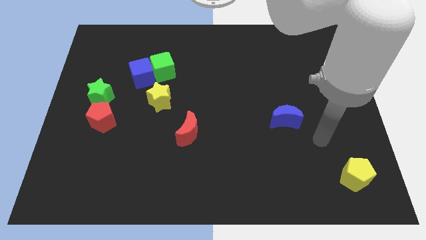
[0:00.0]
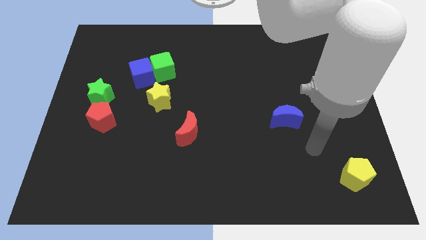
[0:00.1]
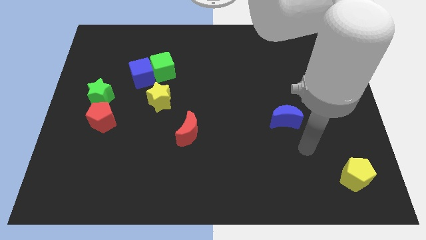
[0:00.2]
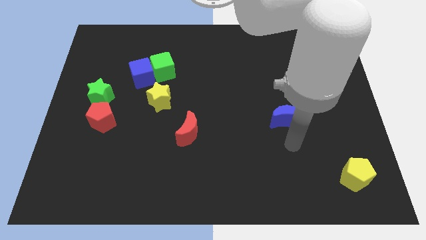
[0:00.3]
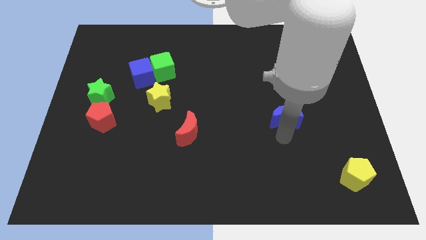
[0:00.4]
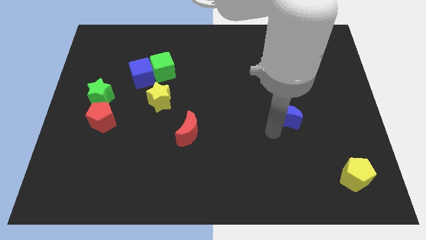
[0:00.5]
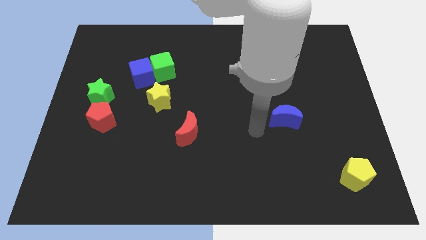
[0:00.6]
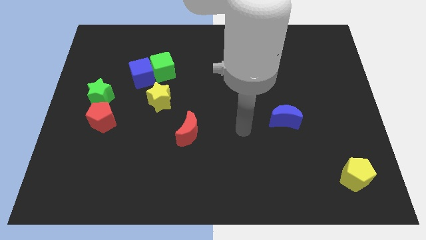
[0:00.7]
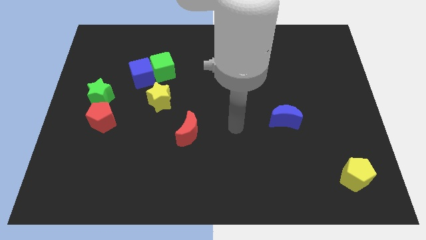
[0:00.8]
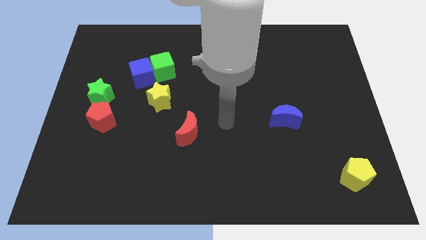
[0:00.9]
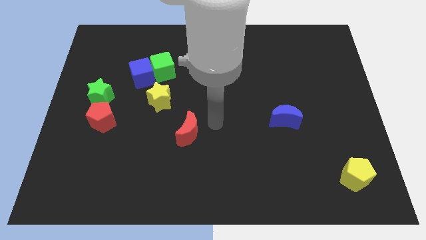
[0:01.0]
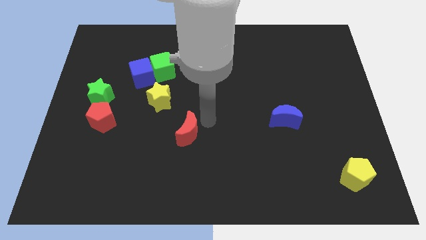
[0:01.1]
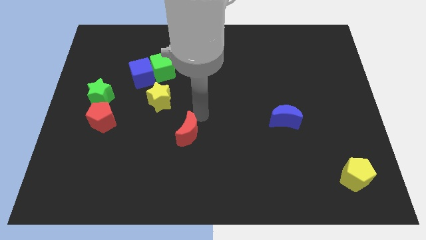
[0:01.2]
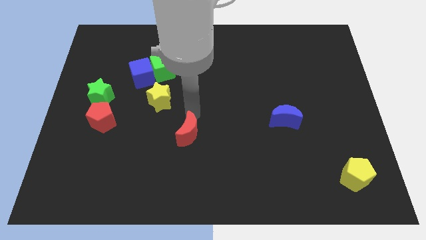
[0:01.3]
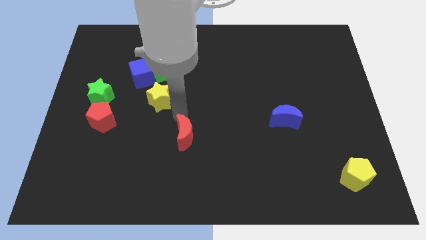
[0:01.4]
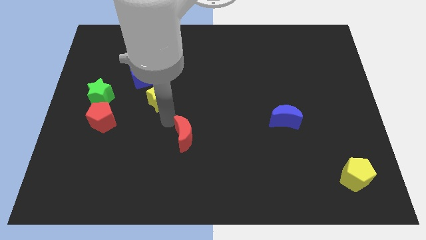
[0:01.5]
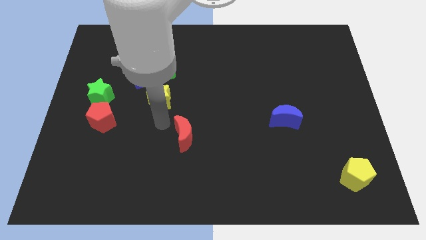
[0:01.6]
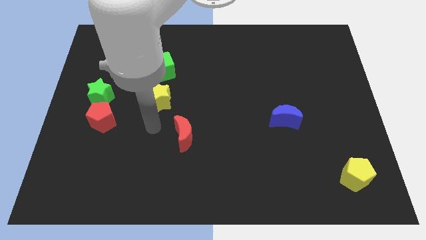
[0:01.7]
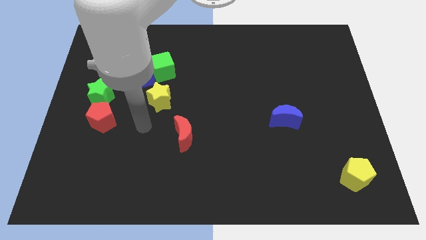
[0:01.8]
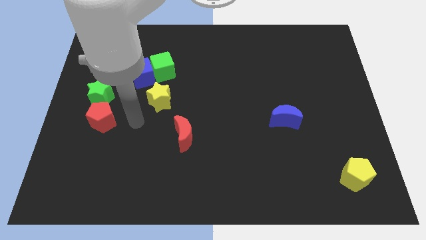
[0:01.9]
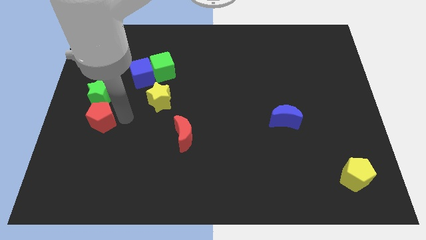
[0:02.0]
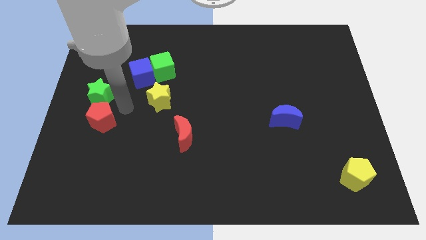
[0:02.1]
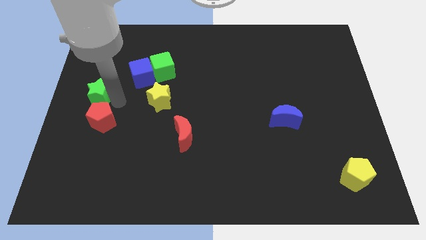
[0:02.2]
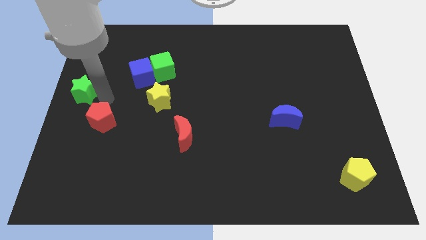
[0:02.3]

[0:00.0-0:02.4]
move the red pentagon away from the green star

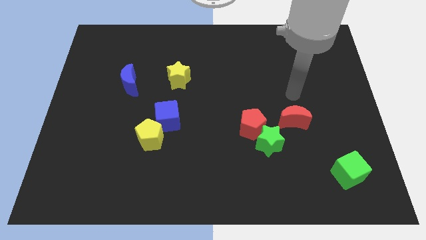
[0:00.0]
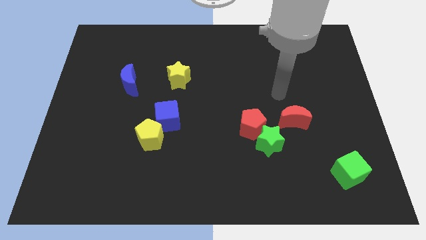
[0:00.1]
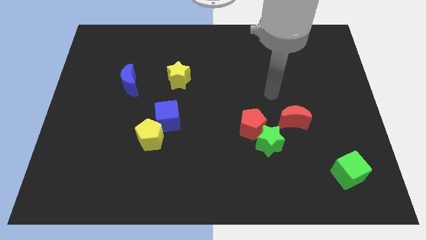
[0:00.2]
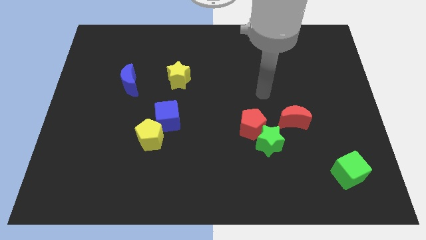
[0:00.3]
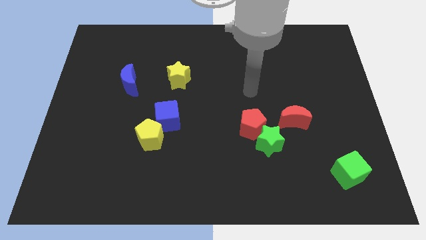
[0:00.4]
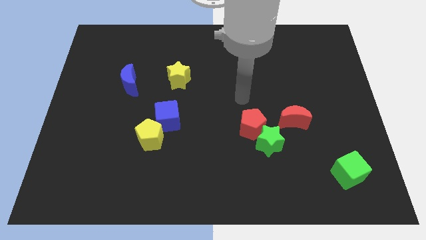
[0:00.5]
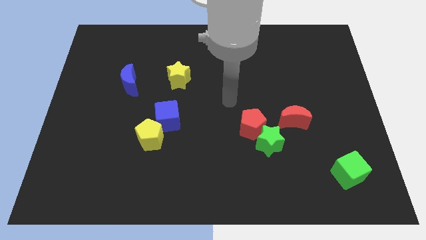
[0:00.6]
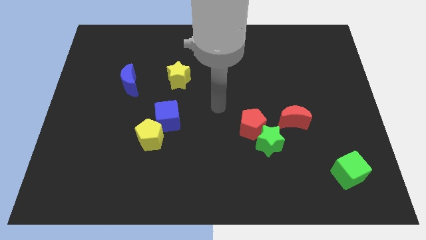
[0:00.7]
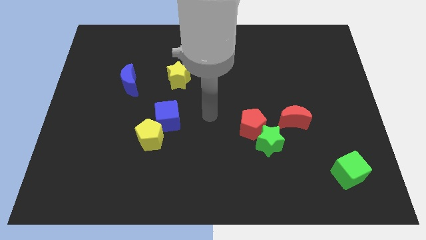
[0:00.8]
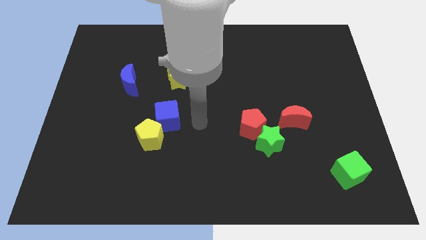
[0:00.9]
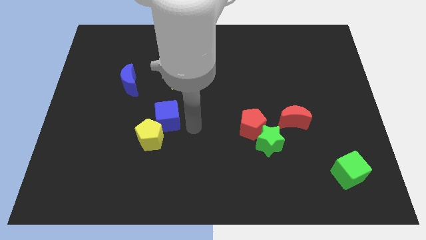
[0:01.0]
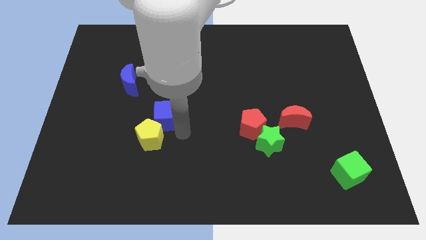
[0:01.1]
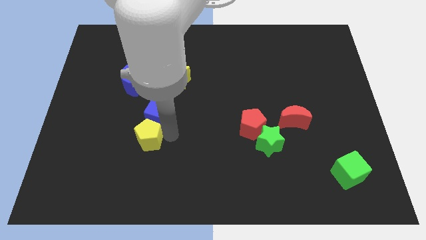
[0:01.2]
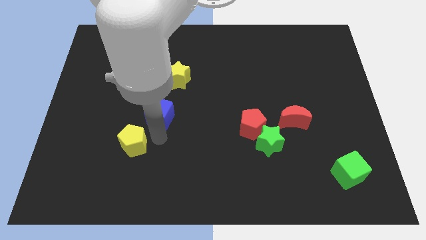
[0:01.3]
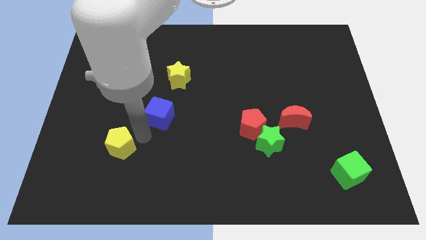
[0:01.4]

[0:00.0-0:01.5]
move the blue cube away from the yellow pentagon

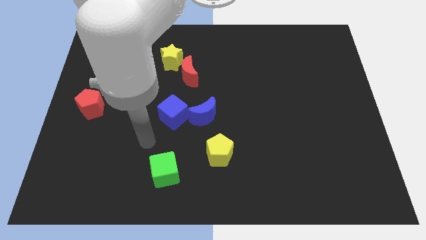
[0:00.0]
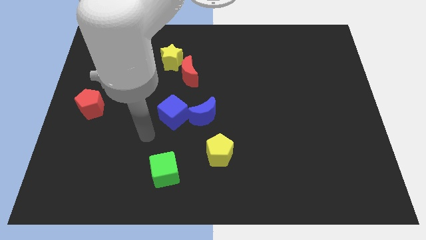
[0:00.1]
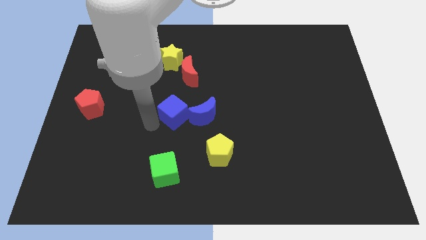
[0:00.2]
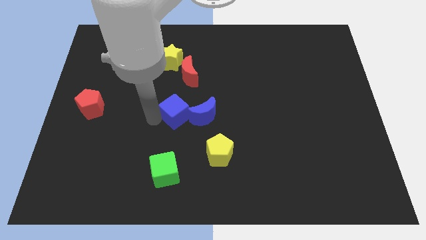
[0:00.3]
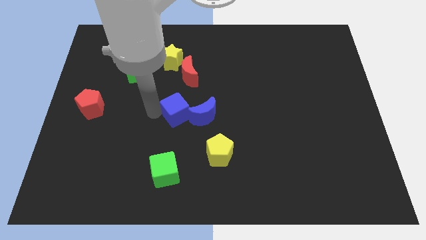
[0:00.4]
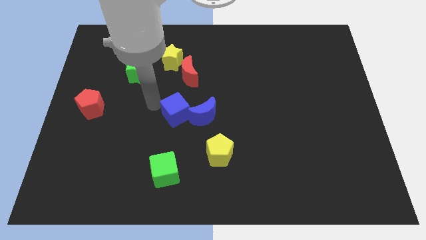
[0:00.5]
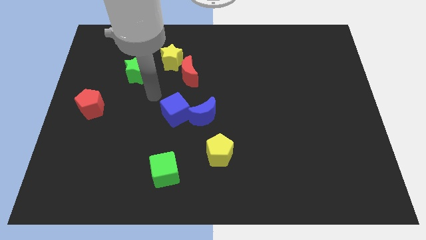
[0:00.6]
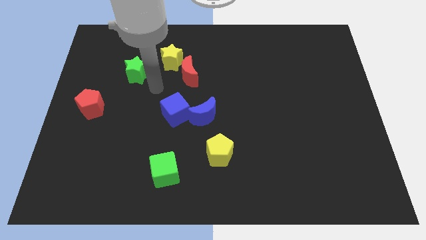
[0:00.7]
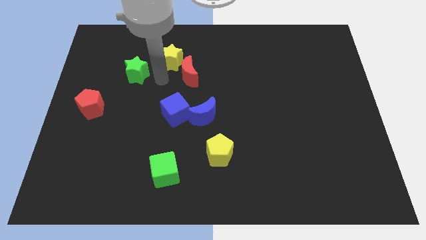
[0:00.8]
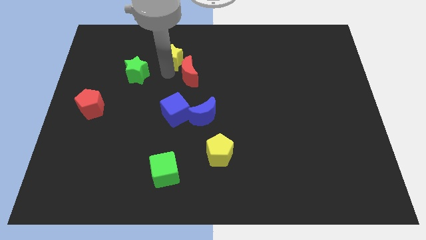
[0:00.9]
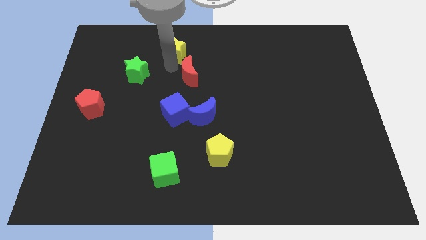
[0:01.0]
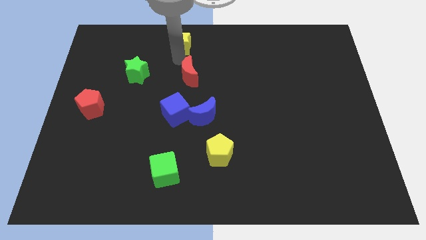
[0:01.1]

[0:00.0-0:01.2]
move the red moon away from the yellow star

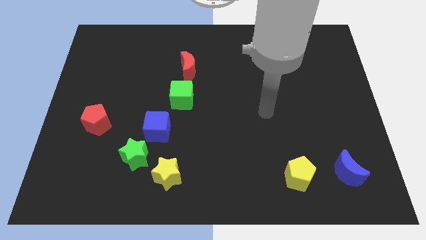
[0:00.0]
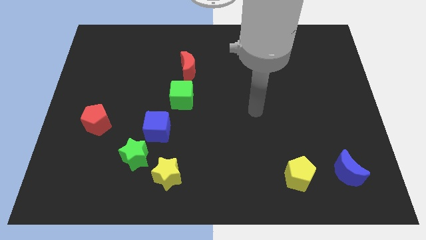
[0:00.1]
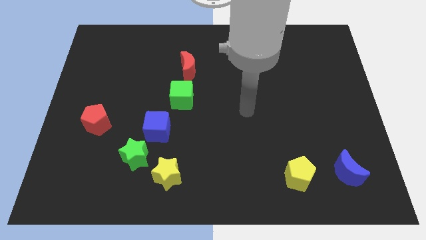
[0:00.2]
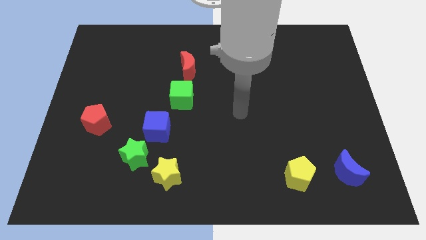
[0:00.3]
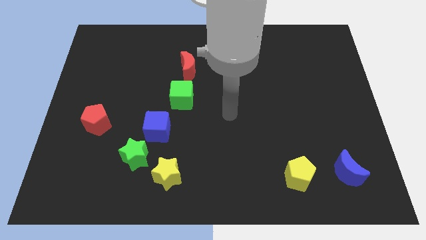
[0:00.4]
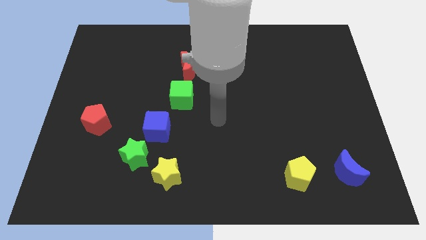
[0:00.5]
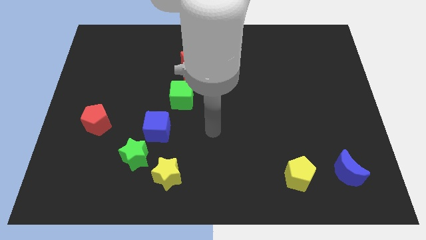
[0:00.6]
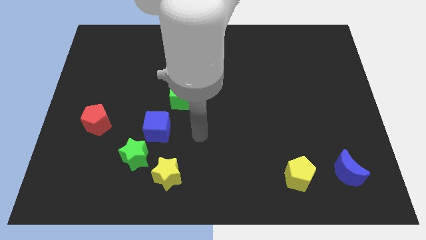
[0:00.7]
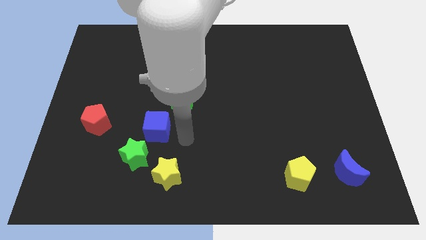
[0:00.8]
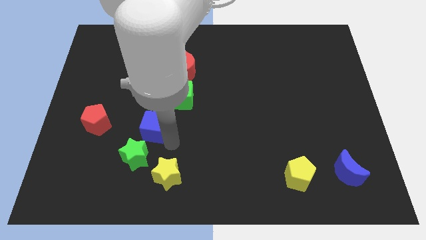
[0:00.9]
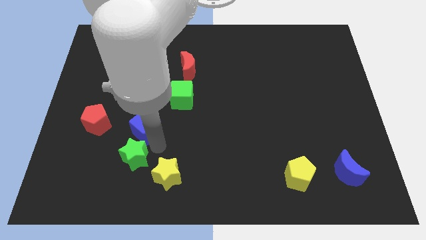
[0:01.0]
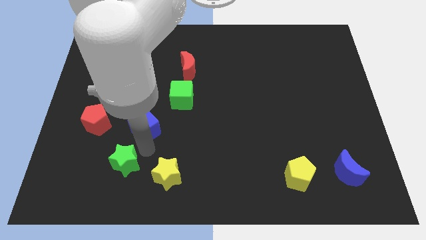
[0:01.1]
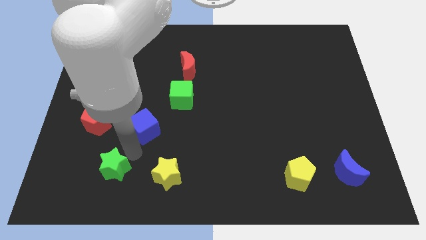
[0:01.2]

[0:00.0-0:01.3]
separate the blue cube from the green star

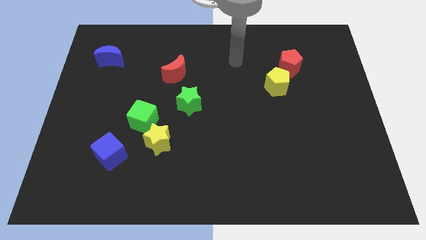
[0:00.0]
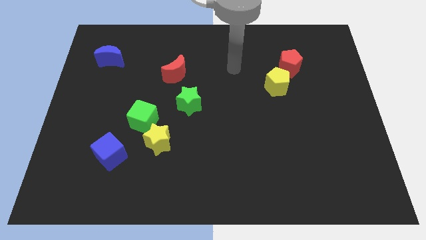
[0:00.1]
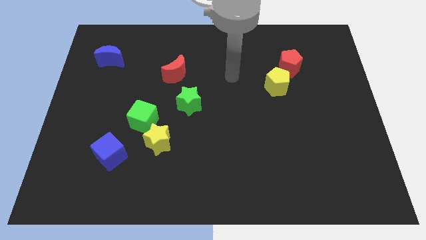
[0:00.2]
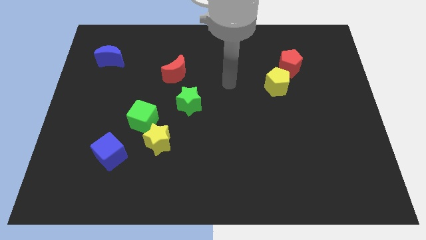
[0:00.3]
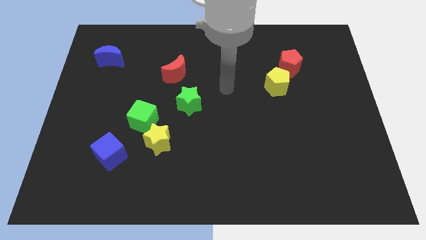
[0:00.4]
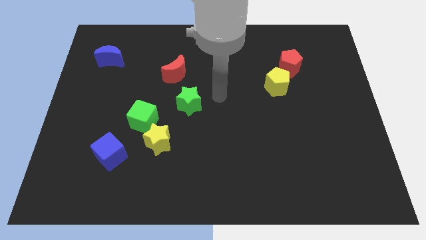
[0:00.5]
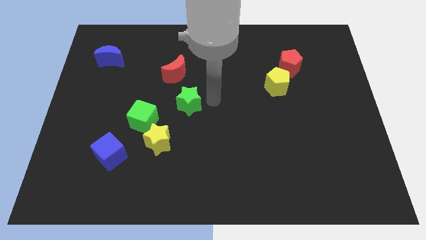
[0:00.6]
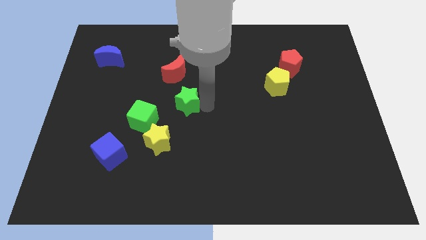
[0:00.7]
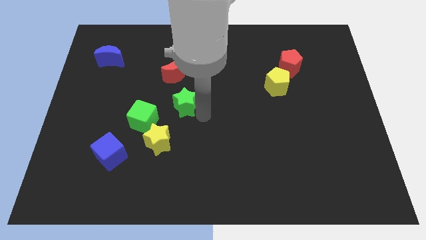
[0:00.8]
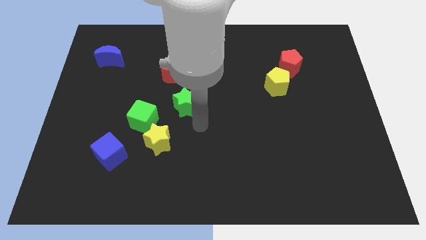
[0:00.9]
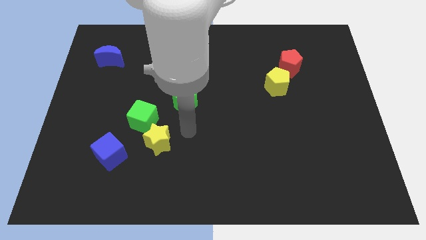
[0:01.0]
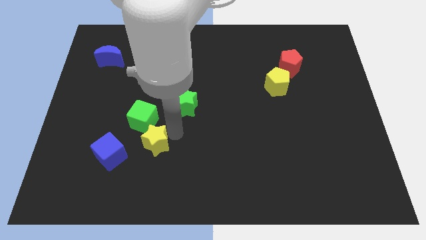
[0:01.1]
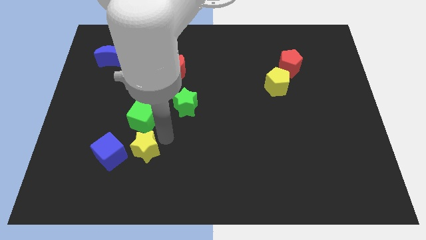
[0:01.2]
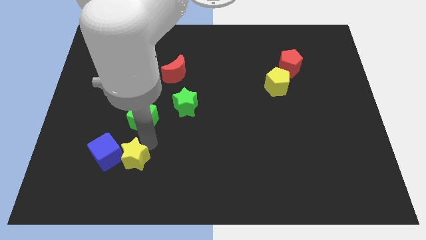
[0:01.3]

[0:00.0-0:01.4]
separate the green cube from the yellow star

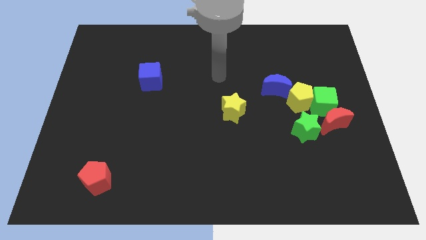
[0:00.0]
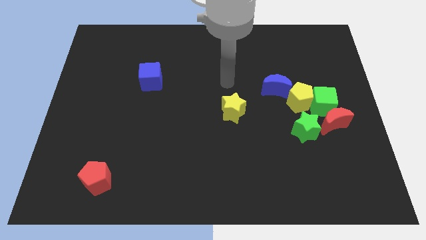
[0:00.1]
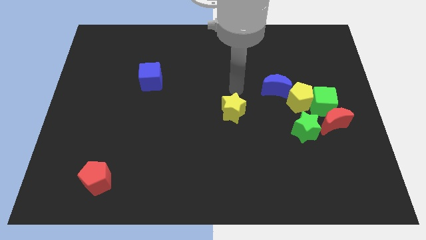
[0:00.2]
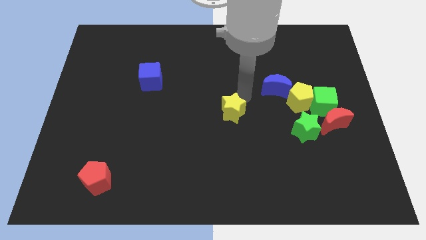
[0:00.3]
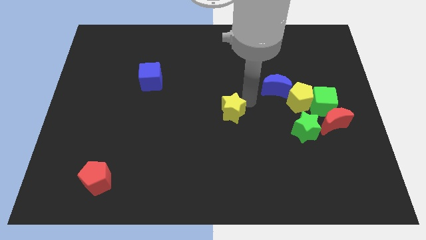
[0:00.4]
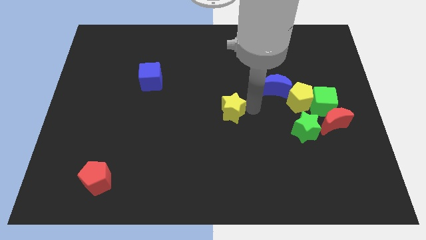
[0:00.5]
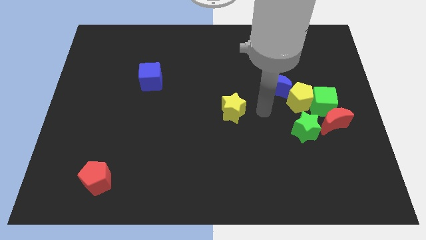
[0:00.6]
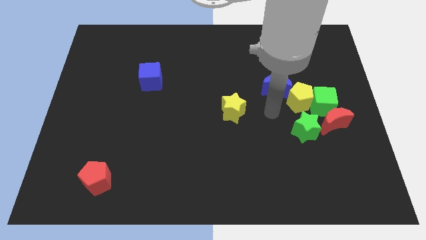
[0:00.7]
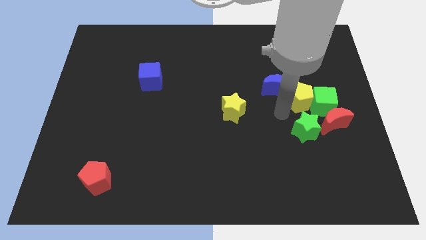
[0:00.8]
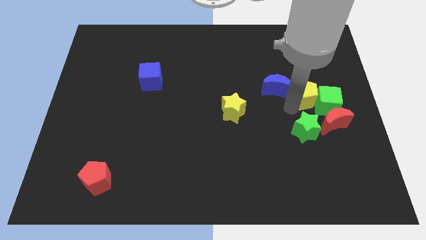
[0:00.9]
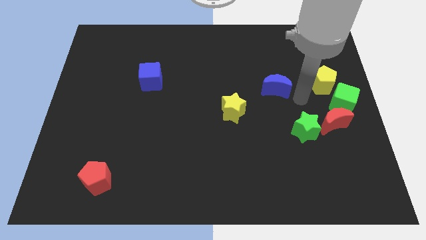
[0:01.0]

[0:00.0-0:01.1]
separate the blue moon from the yellow pentagon

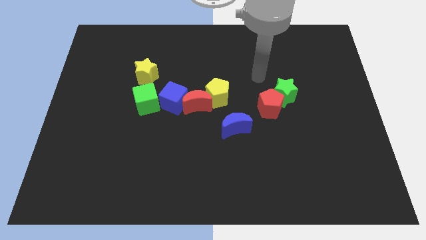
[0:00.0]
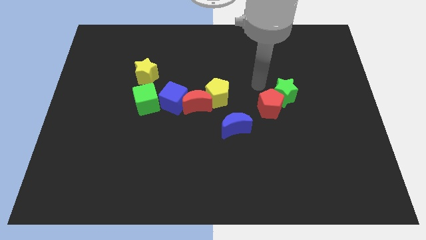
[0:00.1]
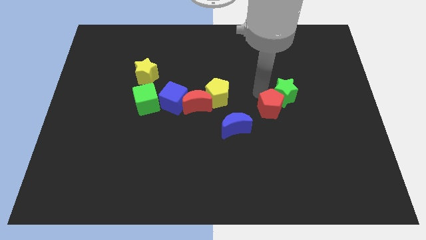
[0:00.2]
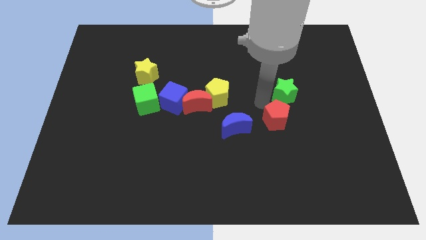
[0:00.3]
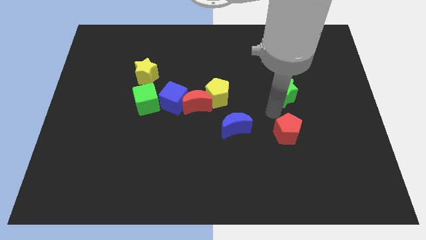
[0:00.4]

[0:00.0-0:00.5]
pull the green star apart from the red pentagon

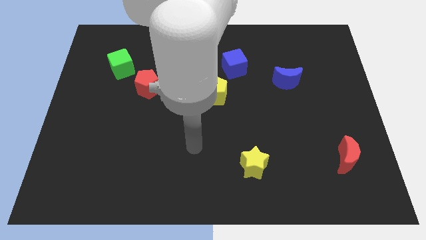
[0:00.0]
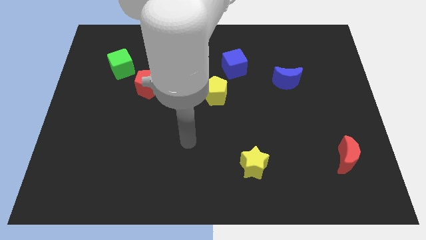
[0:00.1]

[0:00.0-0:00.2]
separate the red pentagon from the green cube
